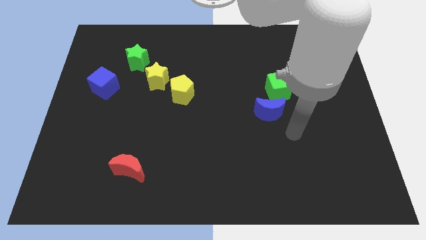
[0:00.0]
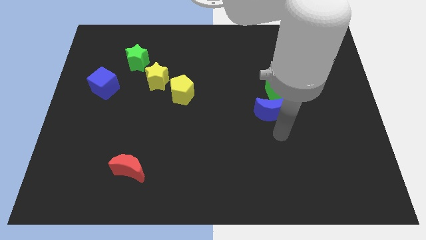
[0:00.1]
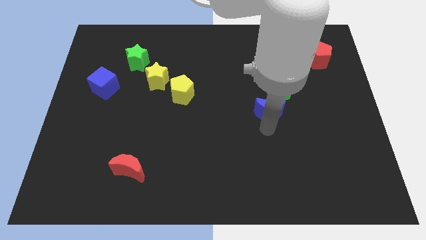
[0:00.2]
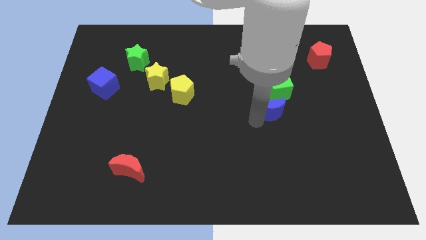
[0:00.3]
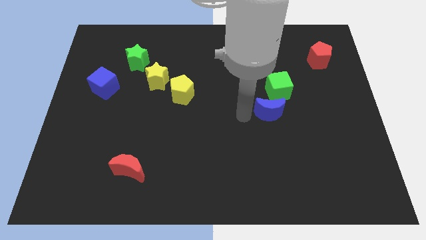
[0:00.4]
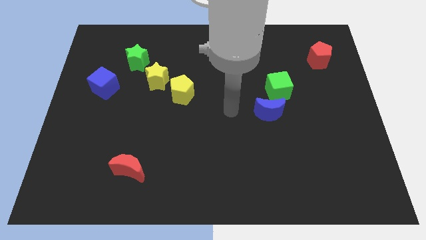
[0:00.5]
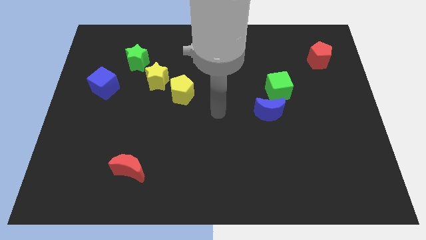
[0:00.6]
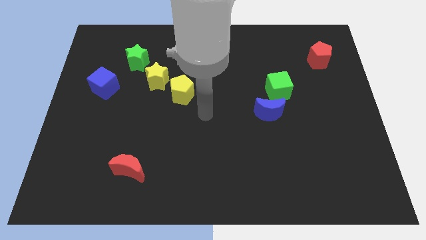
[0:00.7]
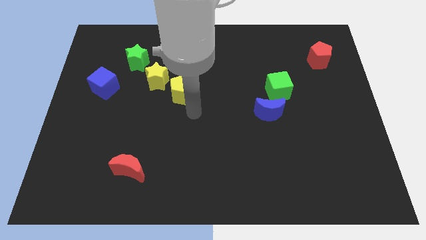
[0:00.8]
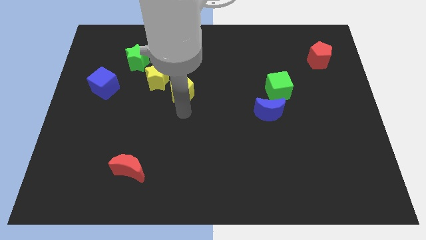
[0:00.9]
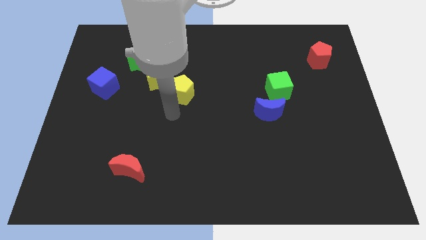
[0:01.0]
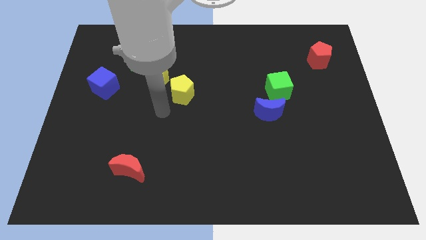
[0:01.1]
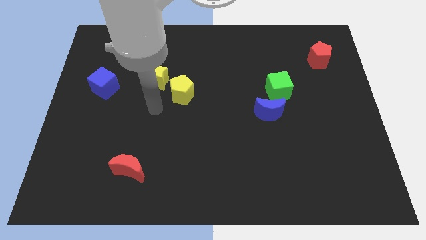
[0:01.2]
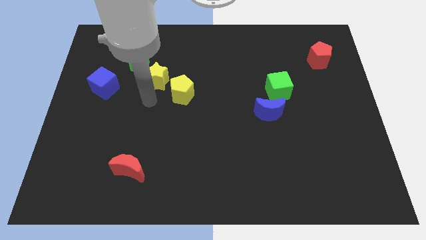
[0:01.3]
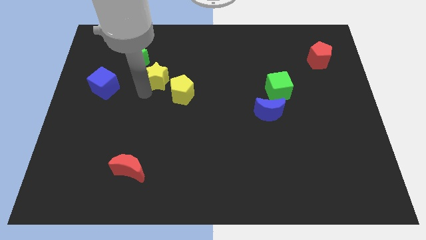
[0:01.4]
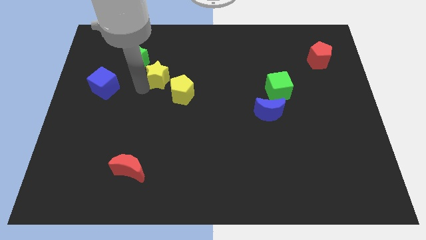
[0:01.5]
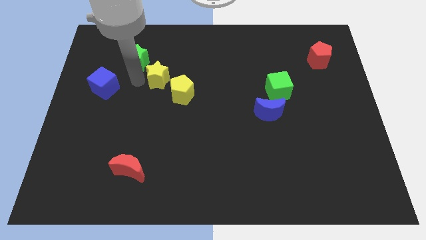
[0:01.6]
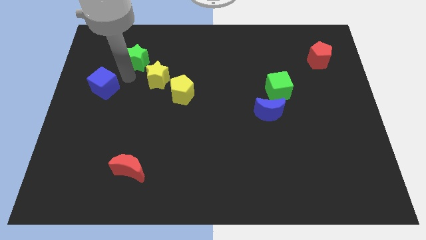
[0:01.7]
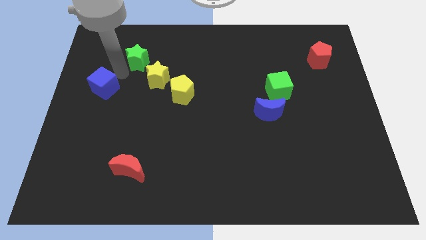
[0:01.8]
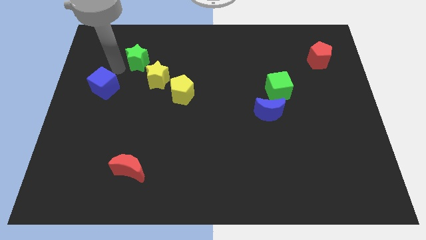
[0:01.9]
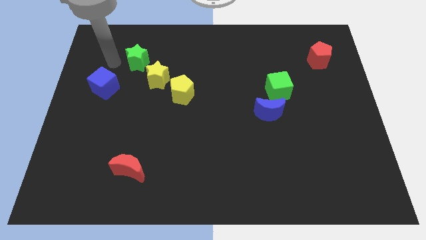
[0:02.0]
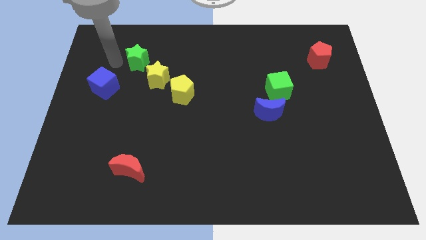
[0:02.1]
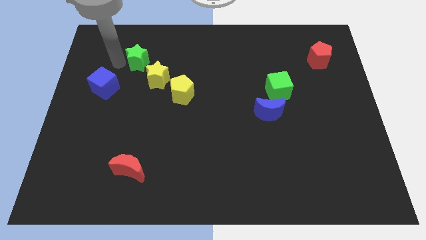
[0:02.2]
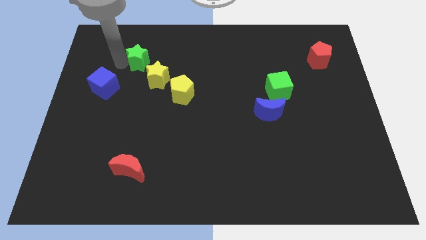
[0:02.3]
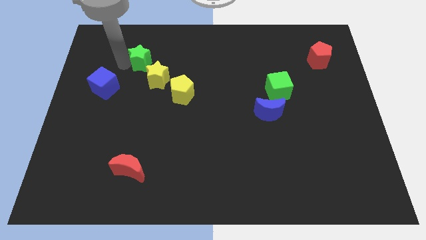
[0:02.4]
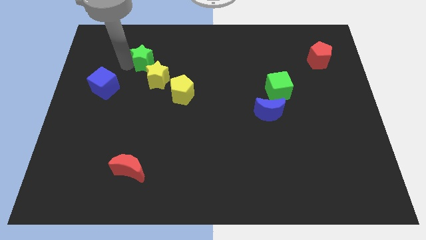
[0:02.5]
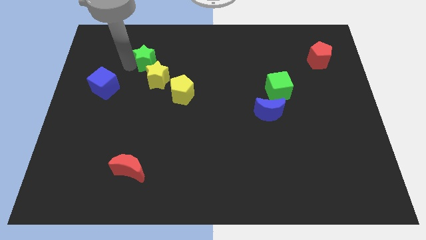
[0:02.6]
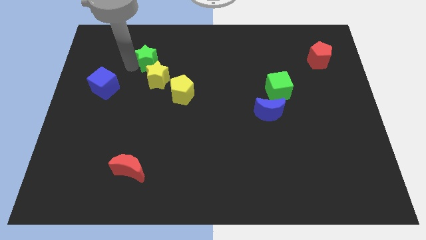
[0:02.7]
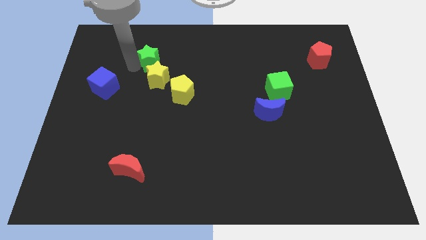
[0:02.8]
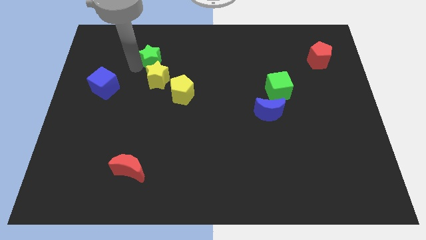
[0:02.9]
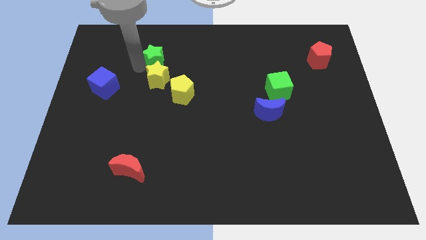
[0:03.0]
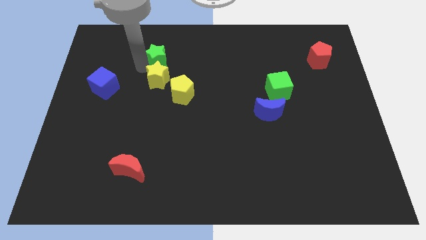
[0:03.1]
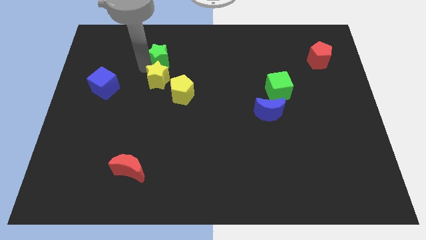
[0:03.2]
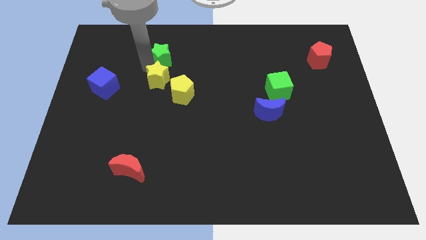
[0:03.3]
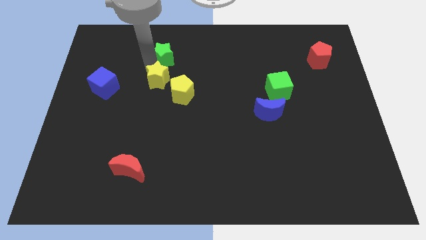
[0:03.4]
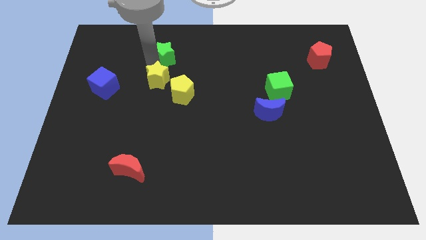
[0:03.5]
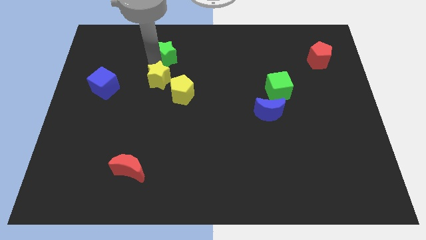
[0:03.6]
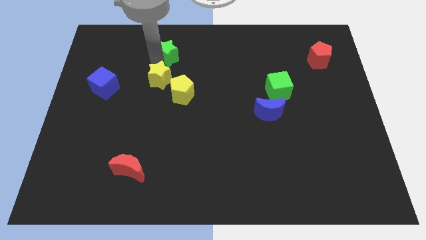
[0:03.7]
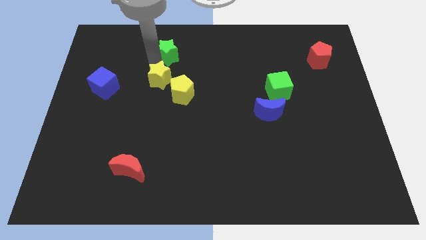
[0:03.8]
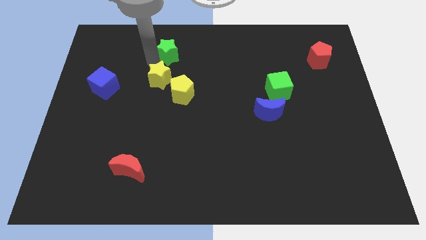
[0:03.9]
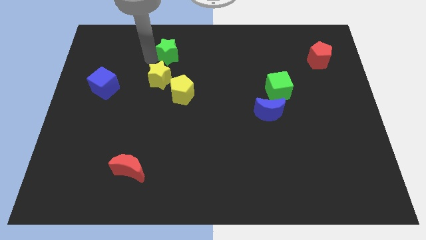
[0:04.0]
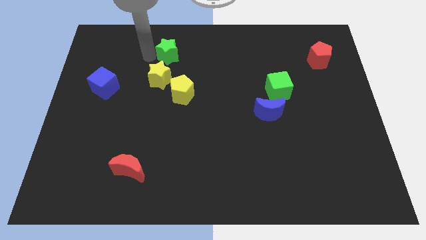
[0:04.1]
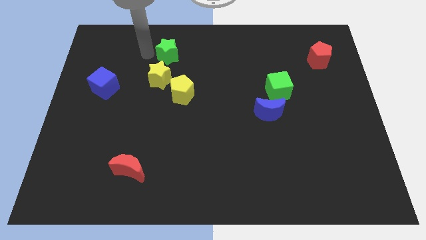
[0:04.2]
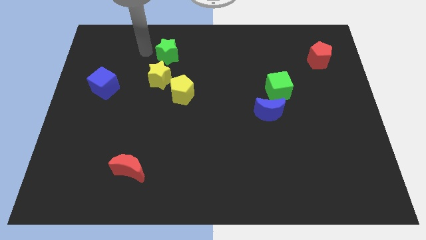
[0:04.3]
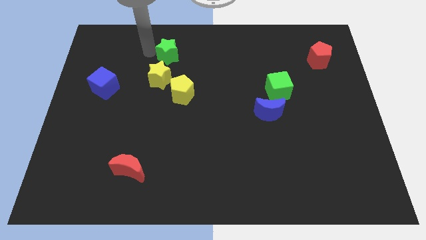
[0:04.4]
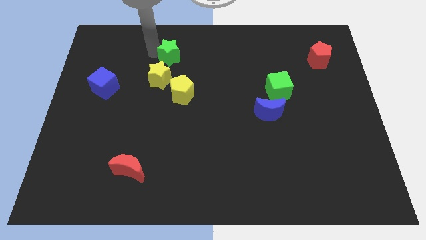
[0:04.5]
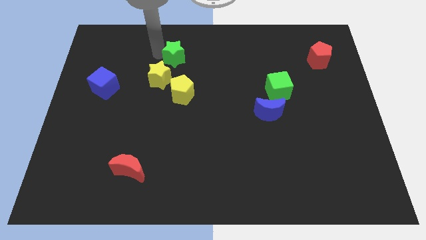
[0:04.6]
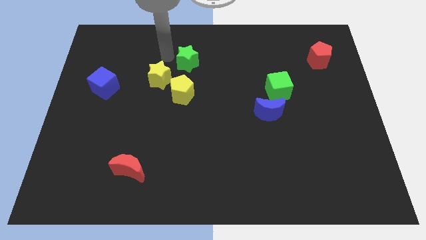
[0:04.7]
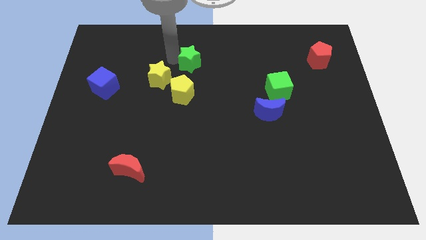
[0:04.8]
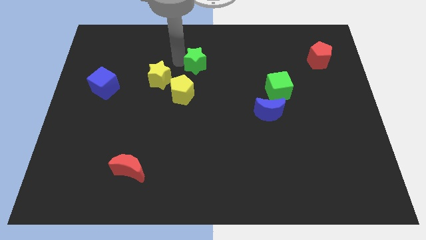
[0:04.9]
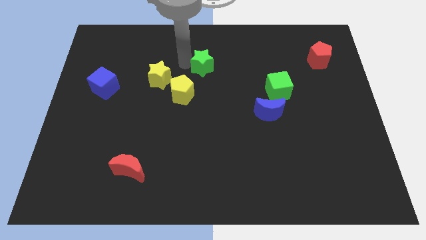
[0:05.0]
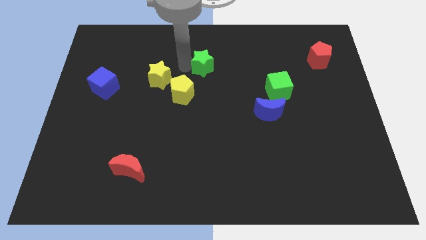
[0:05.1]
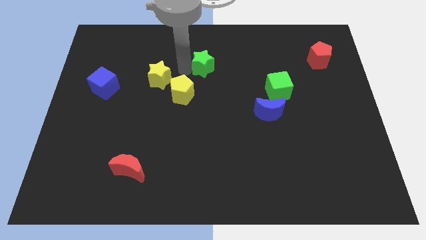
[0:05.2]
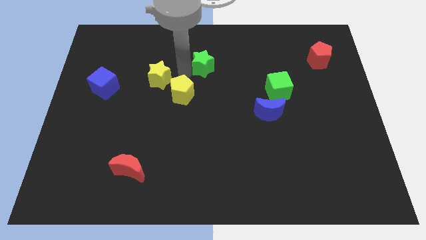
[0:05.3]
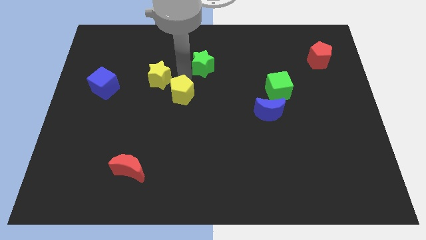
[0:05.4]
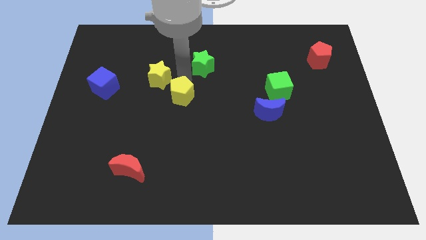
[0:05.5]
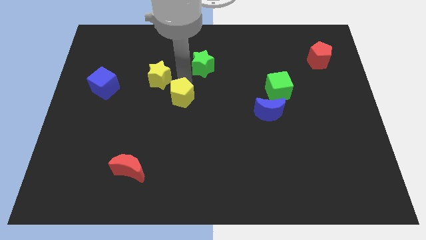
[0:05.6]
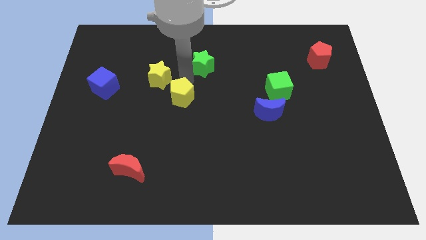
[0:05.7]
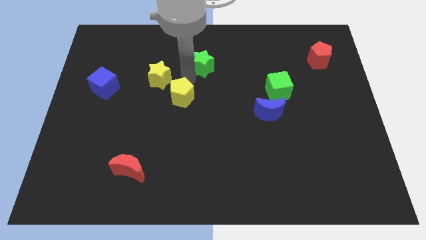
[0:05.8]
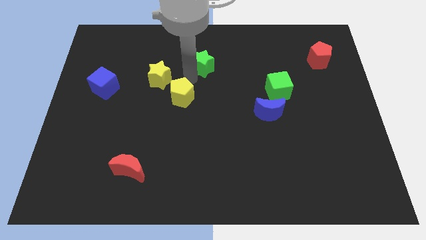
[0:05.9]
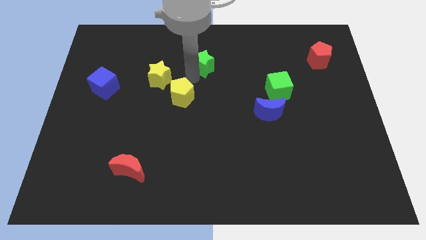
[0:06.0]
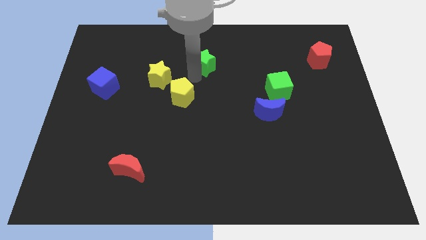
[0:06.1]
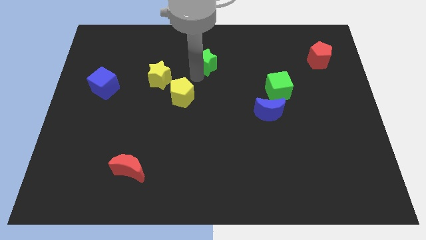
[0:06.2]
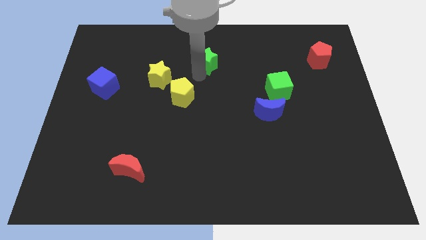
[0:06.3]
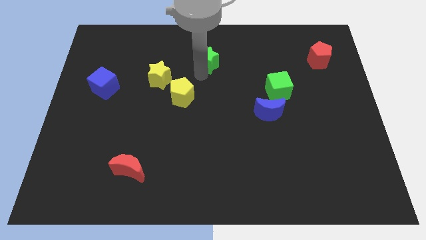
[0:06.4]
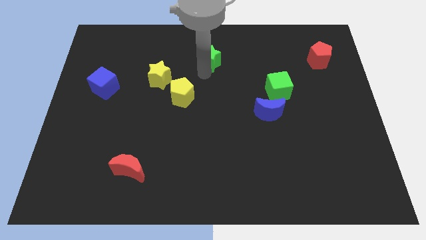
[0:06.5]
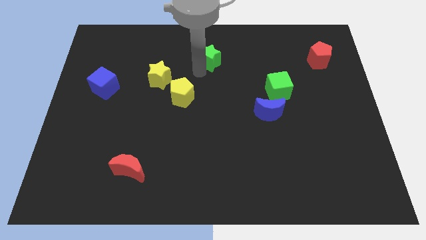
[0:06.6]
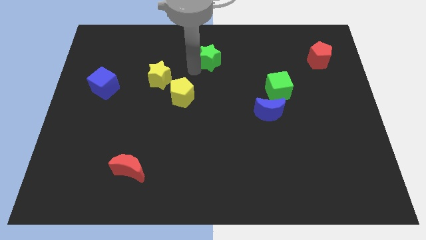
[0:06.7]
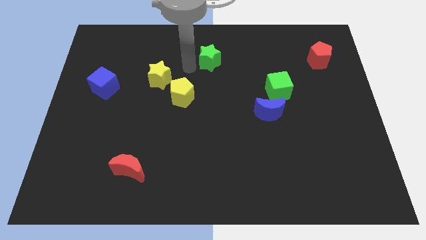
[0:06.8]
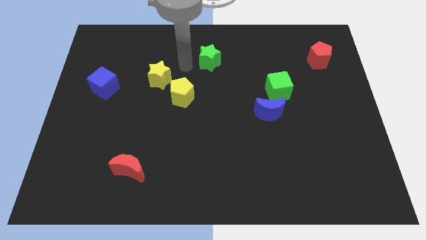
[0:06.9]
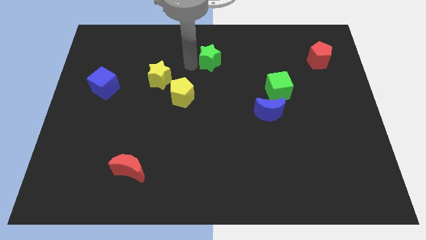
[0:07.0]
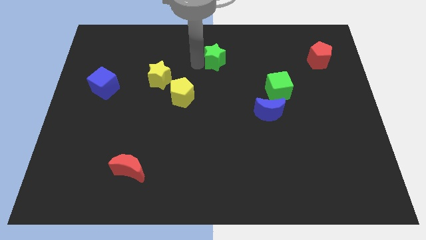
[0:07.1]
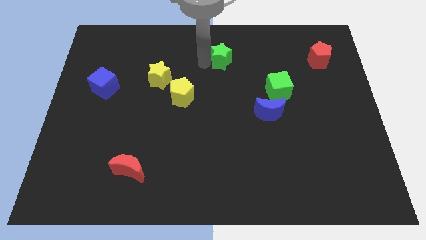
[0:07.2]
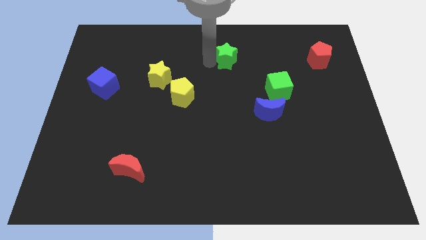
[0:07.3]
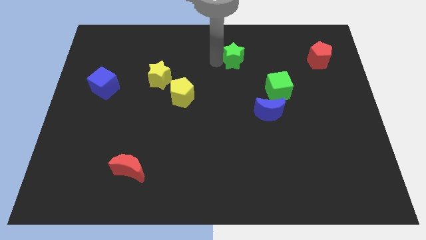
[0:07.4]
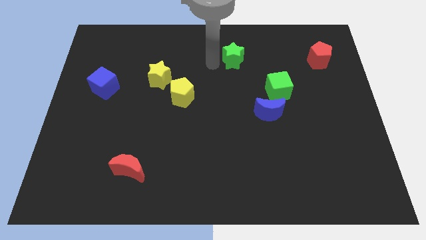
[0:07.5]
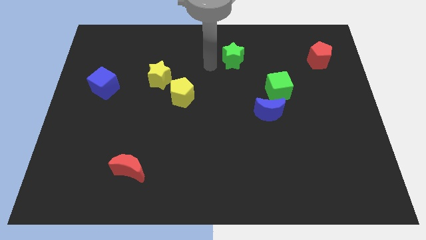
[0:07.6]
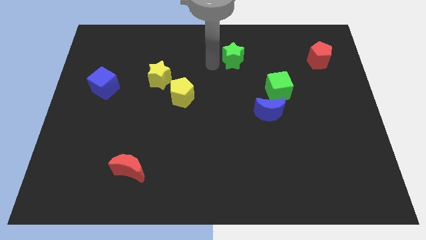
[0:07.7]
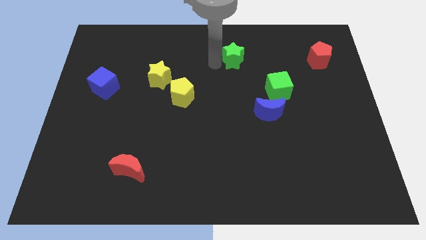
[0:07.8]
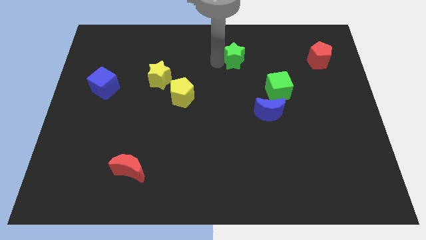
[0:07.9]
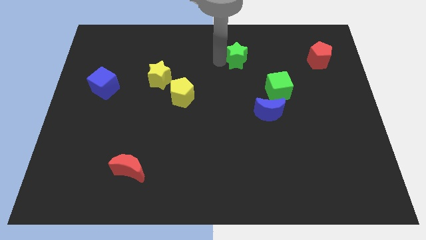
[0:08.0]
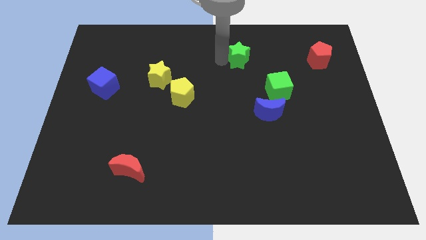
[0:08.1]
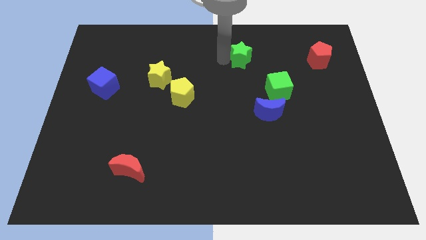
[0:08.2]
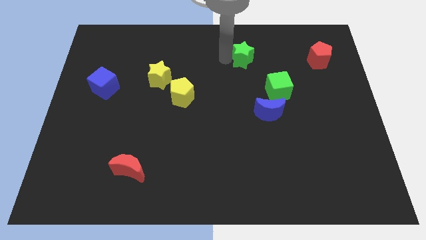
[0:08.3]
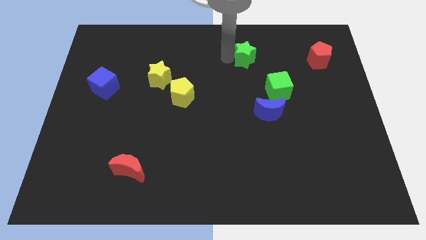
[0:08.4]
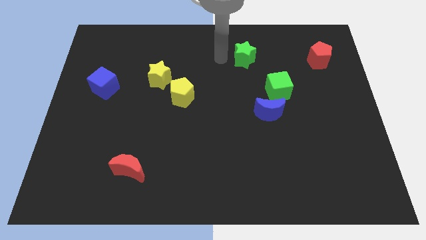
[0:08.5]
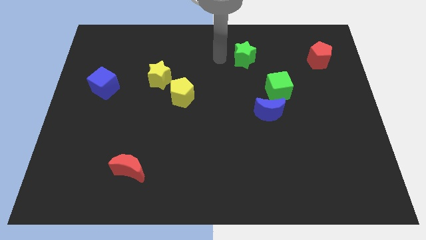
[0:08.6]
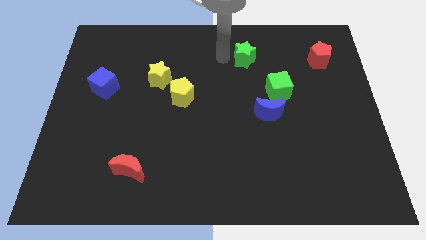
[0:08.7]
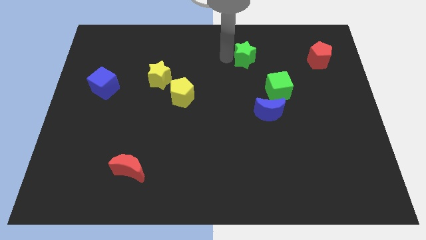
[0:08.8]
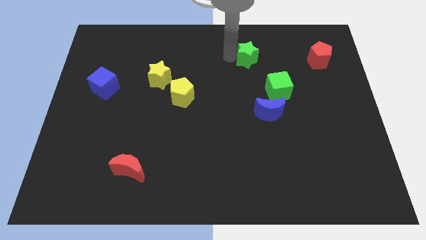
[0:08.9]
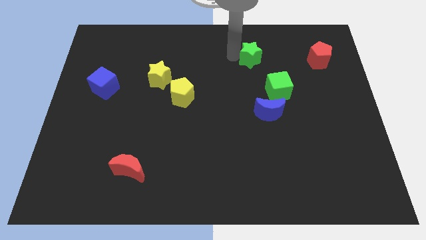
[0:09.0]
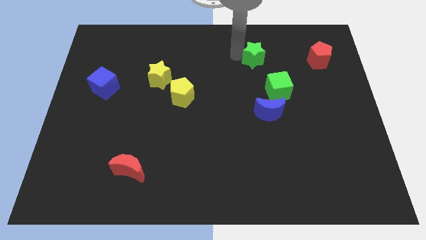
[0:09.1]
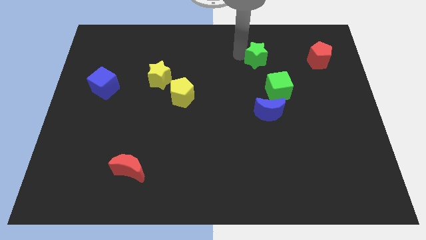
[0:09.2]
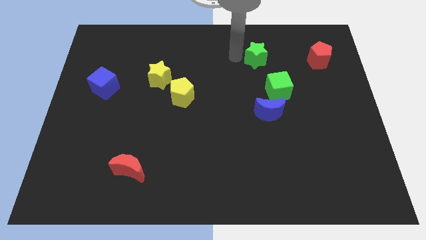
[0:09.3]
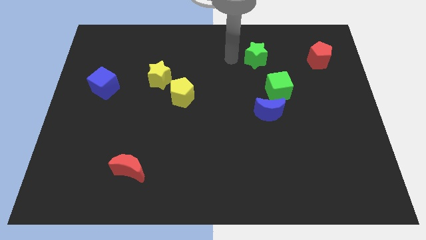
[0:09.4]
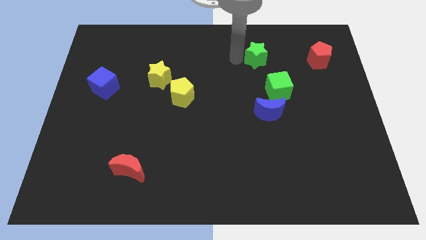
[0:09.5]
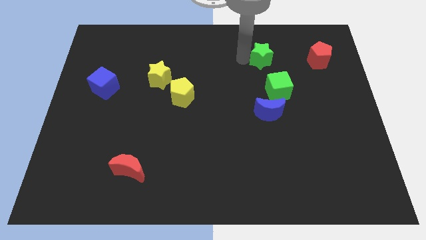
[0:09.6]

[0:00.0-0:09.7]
move the green star to the left of the red pentagon
